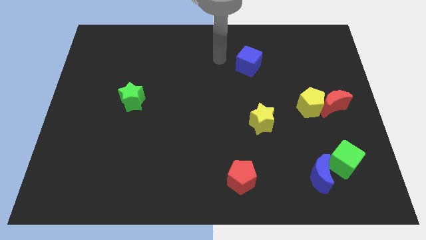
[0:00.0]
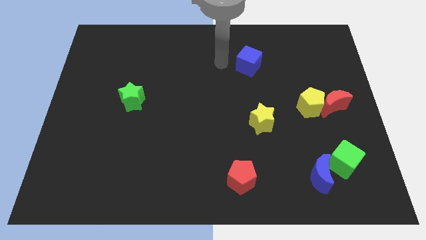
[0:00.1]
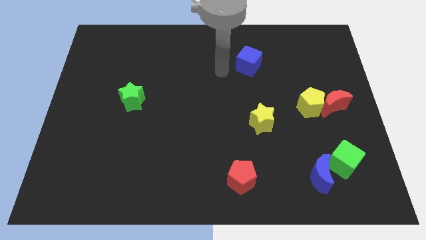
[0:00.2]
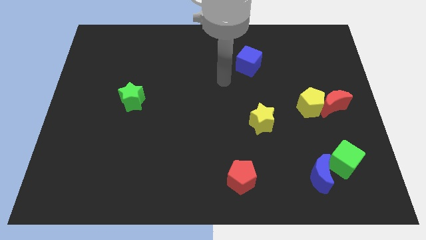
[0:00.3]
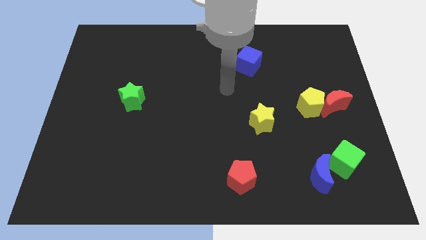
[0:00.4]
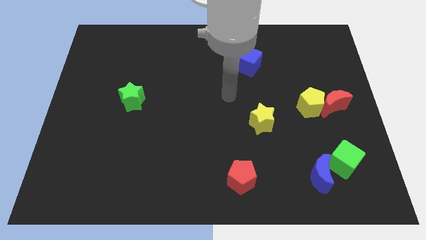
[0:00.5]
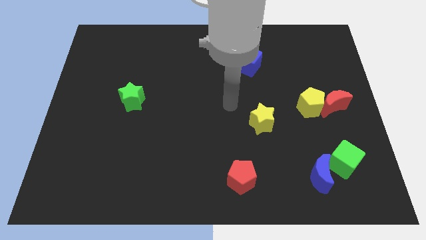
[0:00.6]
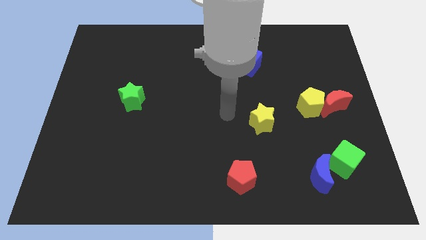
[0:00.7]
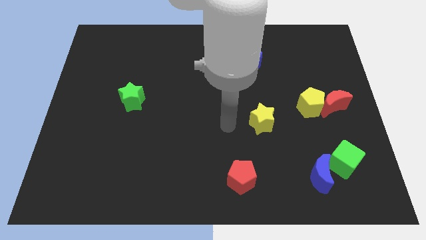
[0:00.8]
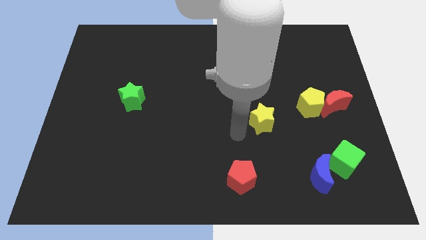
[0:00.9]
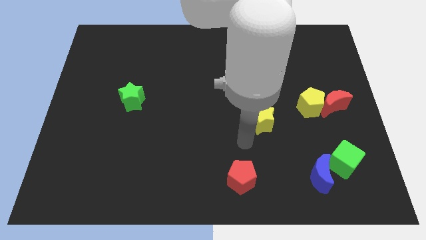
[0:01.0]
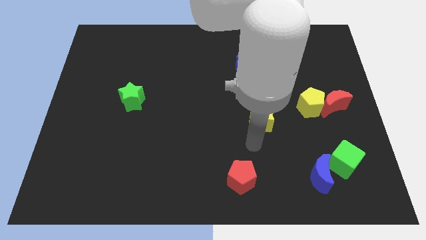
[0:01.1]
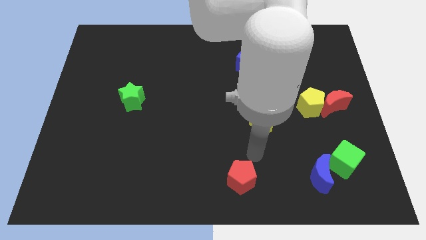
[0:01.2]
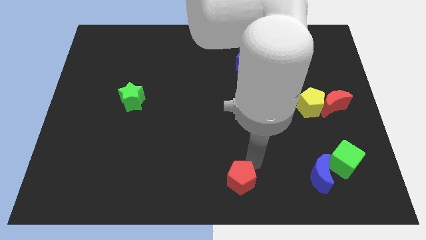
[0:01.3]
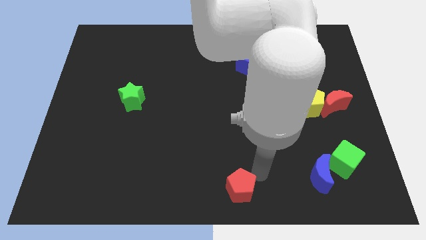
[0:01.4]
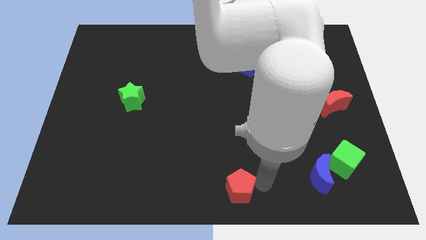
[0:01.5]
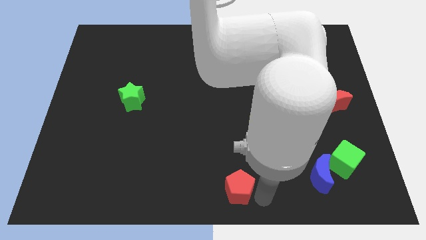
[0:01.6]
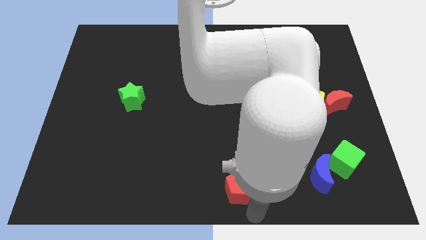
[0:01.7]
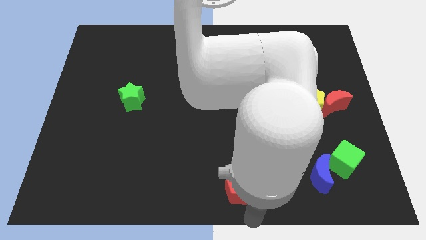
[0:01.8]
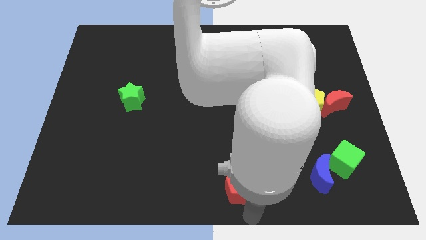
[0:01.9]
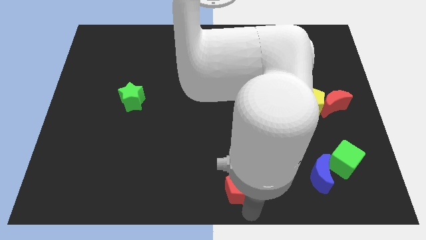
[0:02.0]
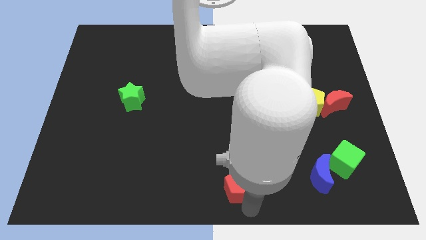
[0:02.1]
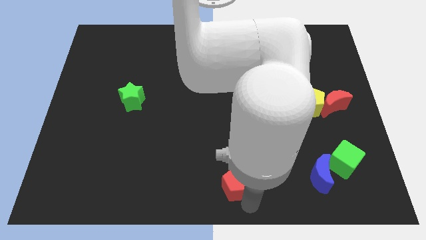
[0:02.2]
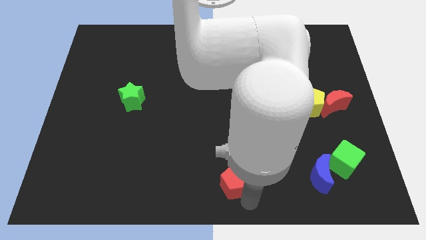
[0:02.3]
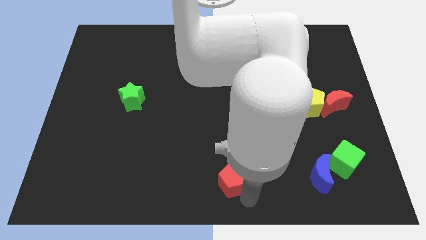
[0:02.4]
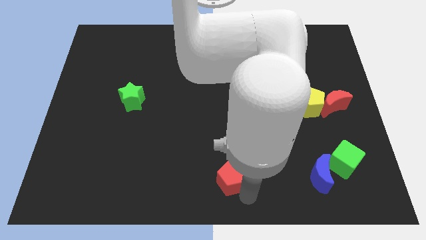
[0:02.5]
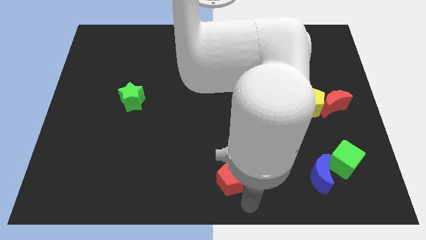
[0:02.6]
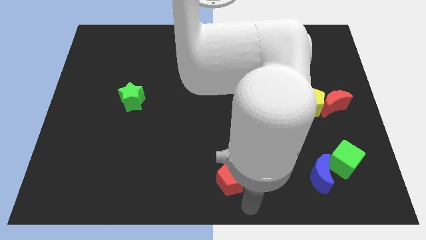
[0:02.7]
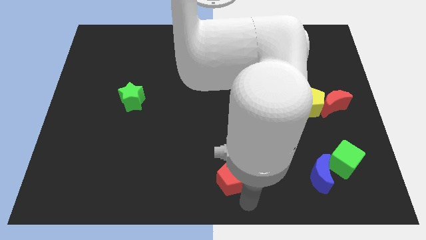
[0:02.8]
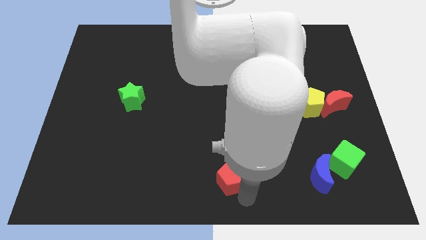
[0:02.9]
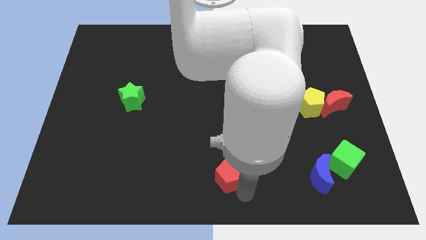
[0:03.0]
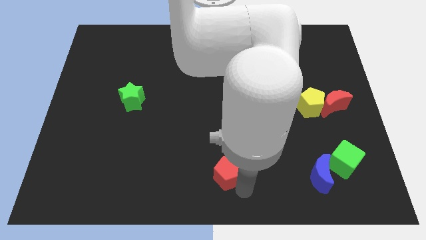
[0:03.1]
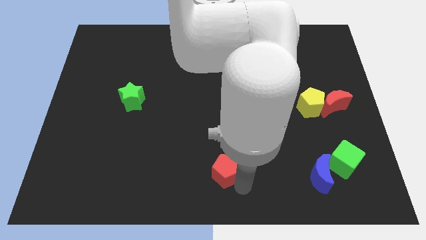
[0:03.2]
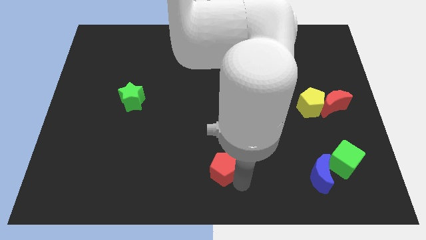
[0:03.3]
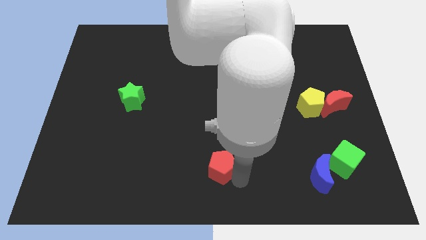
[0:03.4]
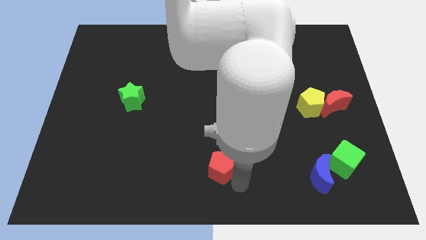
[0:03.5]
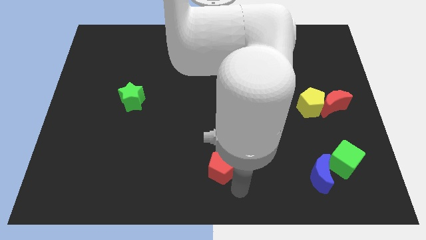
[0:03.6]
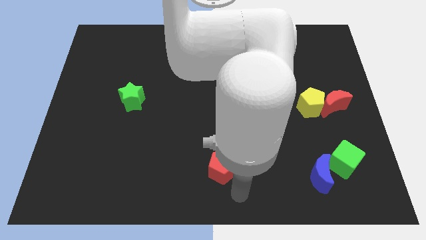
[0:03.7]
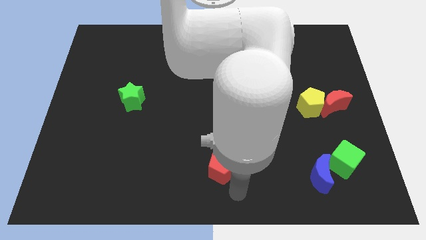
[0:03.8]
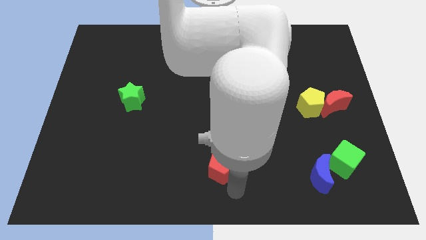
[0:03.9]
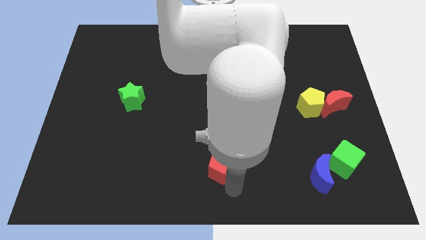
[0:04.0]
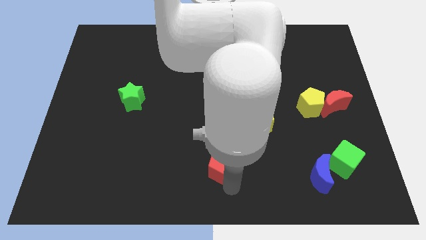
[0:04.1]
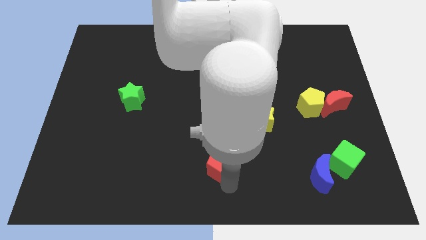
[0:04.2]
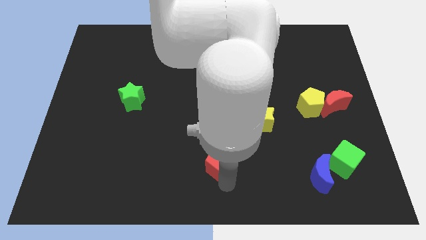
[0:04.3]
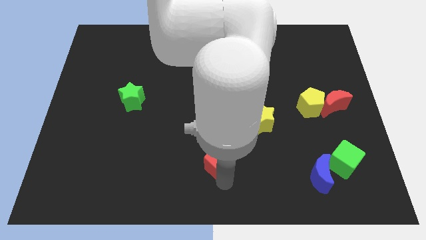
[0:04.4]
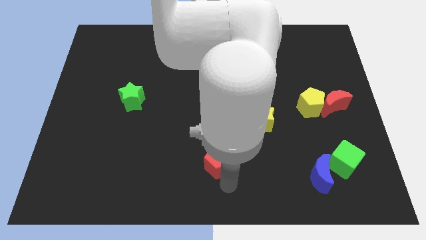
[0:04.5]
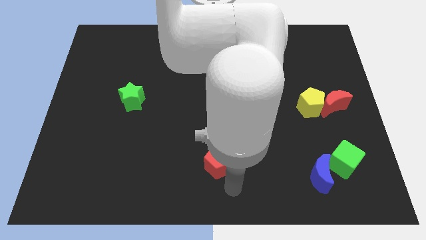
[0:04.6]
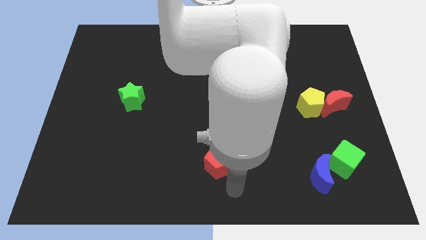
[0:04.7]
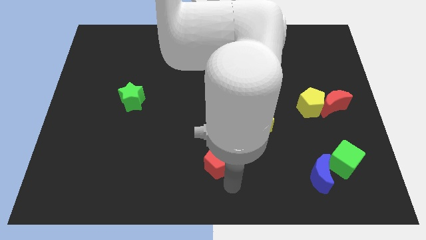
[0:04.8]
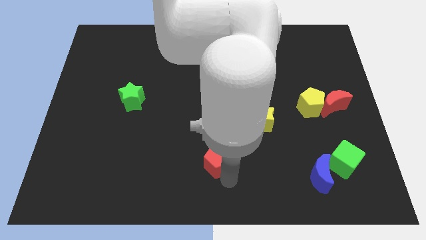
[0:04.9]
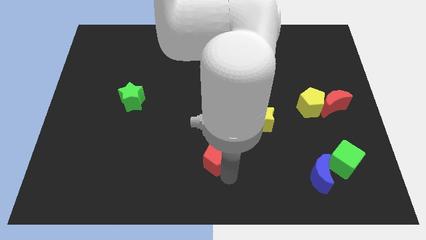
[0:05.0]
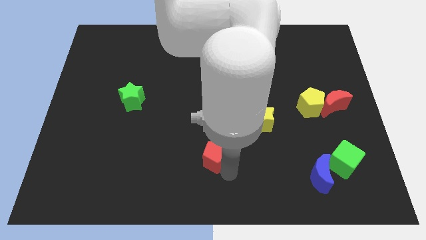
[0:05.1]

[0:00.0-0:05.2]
move the red pentagon a little diagonally upwards and to the left

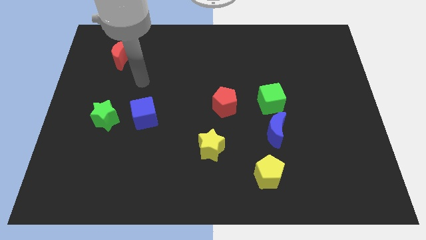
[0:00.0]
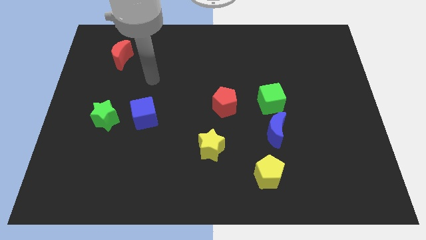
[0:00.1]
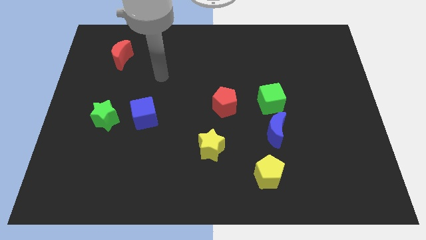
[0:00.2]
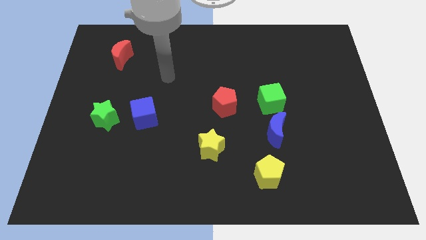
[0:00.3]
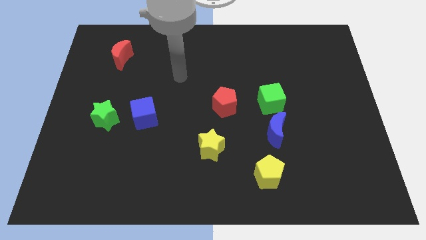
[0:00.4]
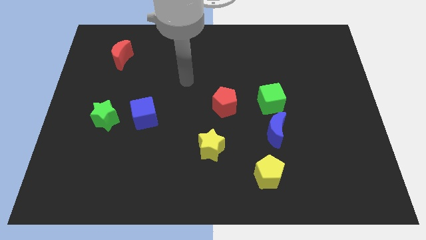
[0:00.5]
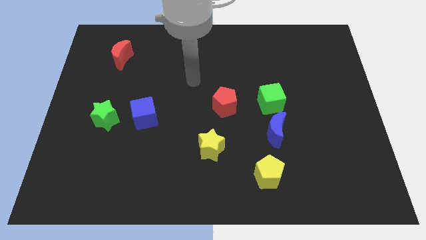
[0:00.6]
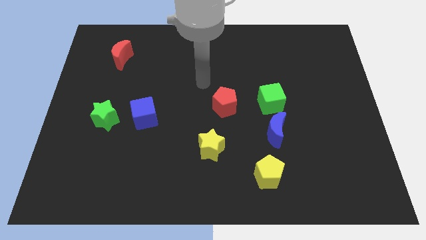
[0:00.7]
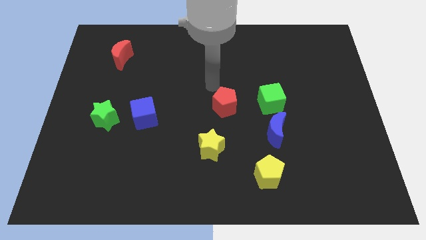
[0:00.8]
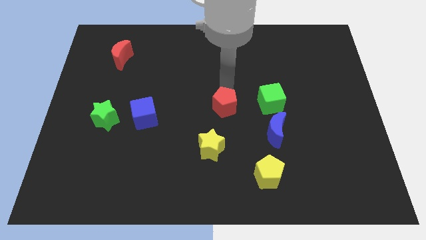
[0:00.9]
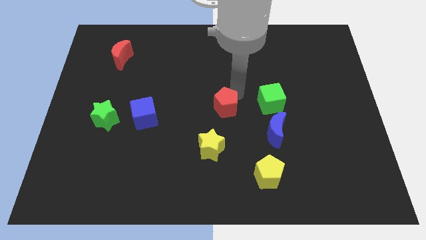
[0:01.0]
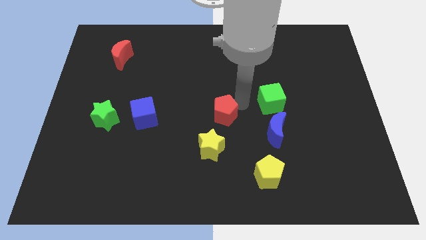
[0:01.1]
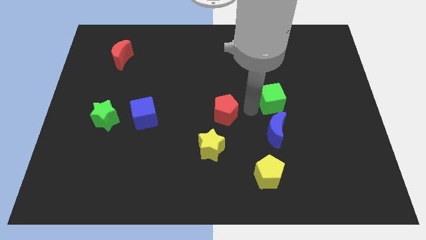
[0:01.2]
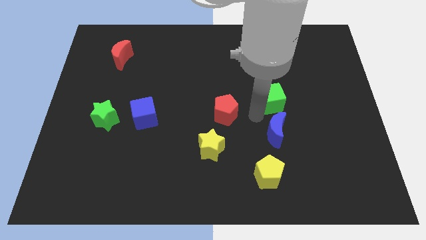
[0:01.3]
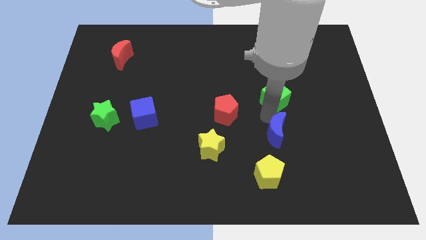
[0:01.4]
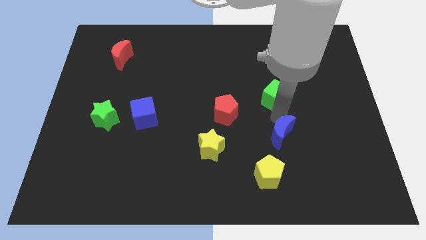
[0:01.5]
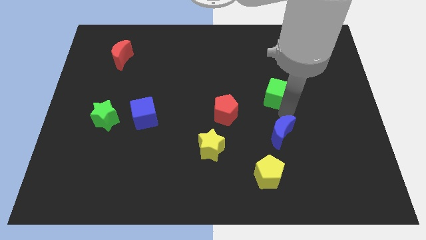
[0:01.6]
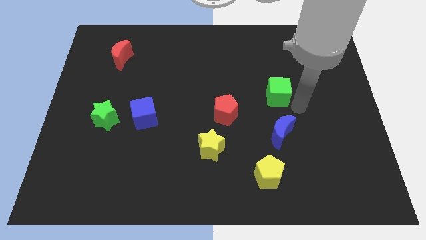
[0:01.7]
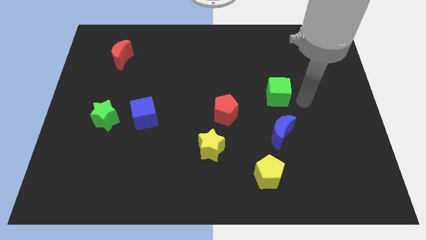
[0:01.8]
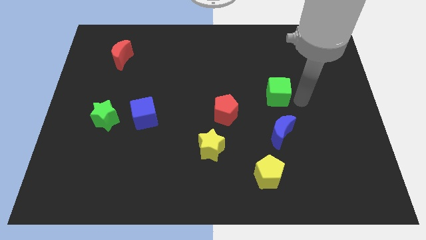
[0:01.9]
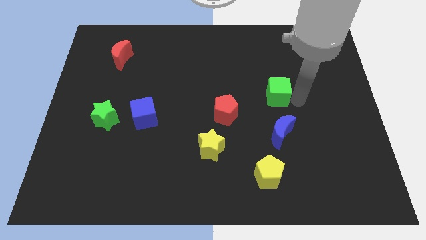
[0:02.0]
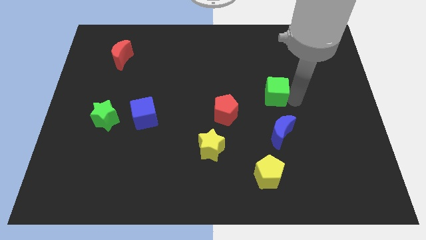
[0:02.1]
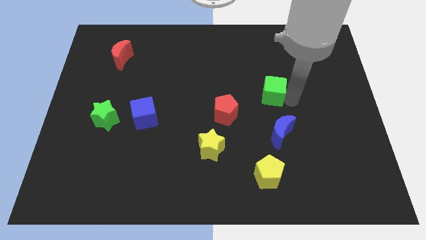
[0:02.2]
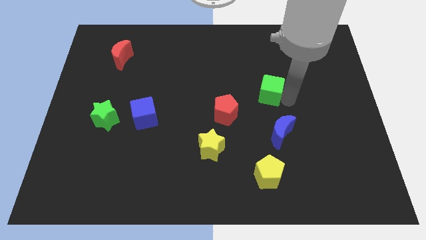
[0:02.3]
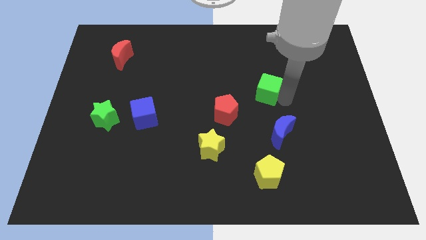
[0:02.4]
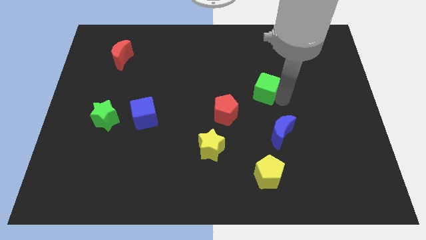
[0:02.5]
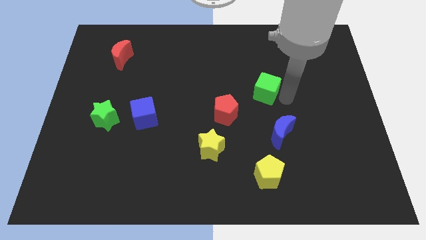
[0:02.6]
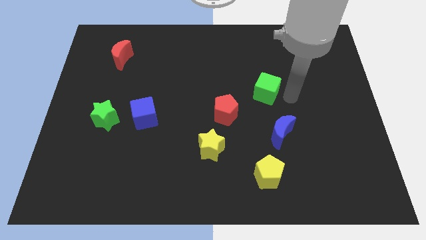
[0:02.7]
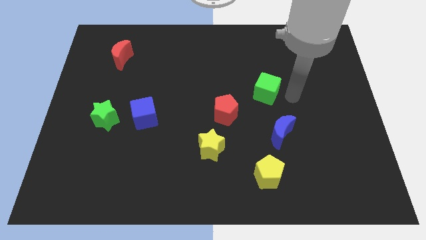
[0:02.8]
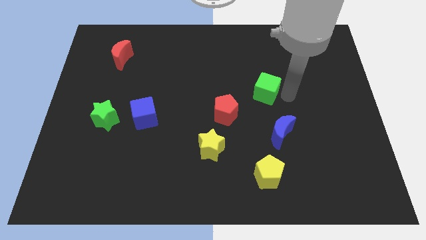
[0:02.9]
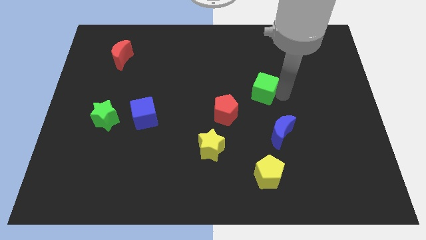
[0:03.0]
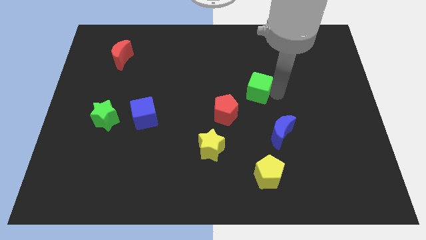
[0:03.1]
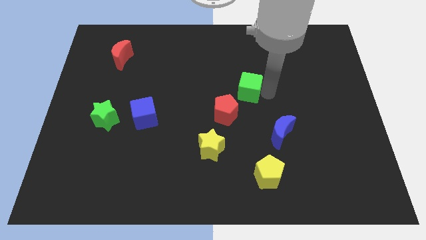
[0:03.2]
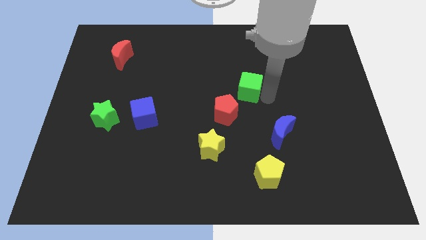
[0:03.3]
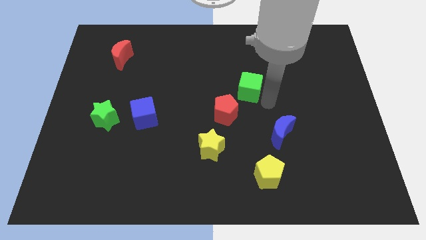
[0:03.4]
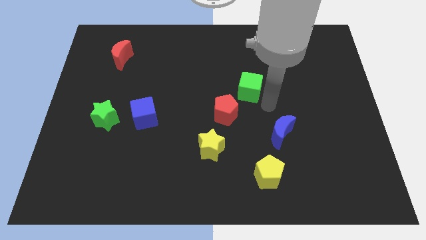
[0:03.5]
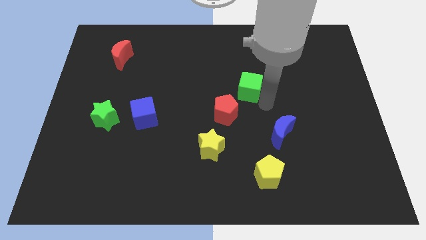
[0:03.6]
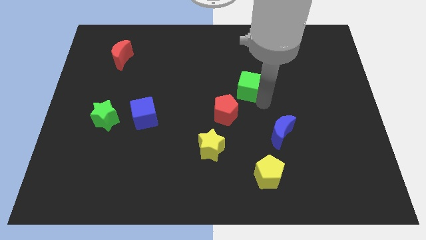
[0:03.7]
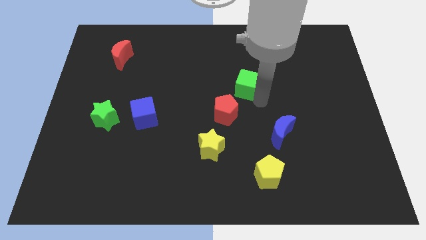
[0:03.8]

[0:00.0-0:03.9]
push the green cube slightly up and then to the left
